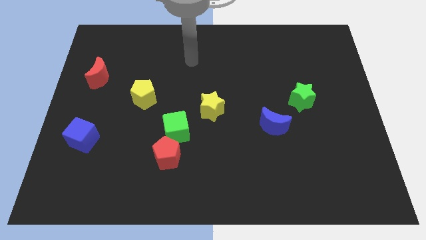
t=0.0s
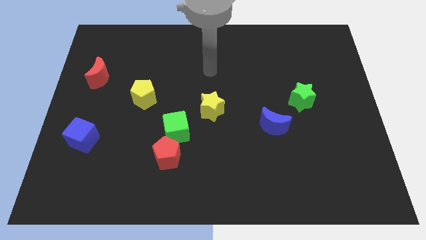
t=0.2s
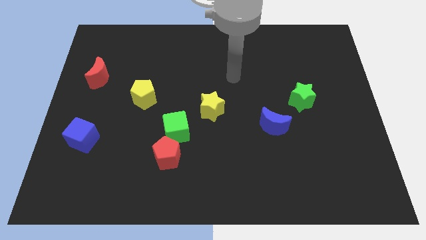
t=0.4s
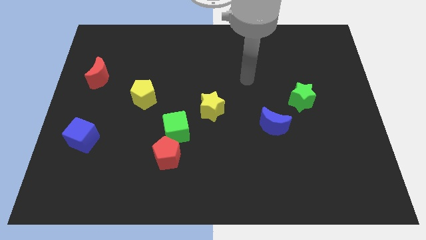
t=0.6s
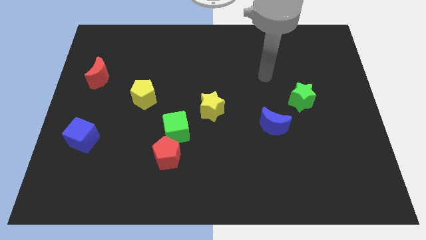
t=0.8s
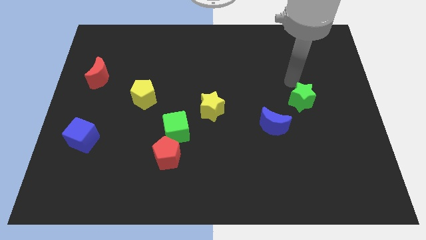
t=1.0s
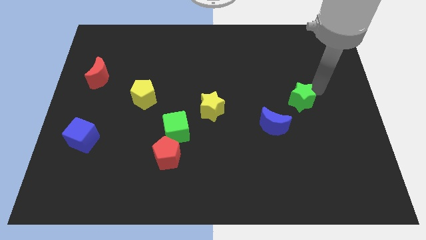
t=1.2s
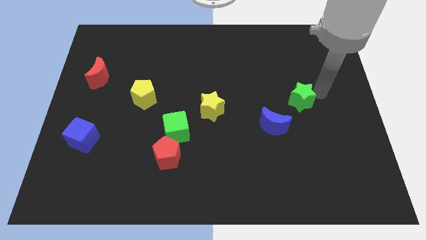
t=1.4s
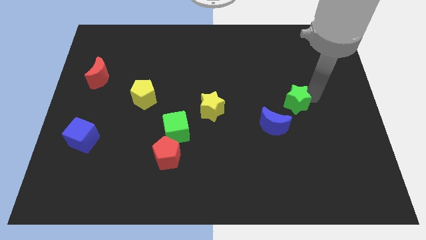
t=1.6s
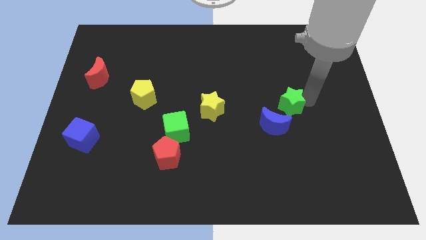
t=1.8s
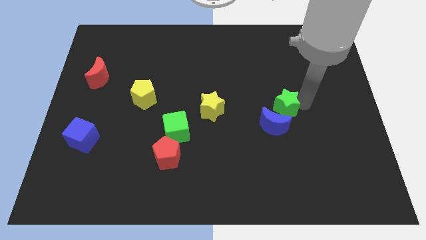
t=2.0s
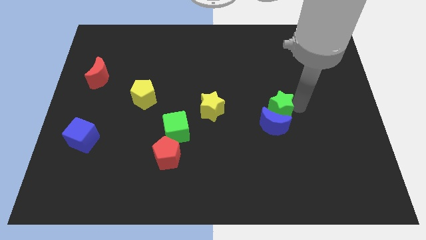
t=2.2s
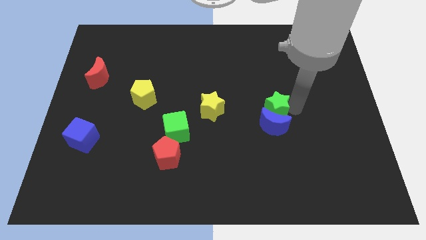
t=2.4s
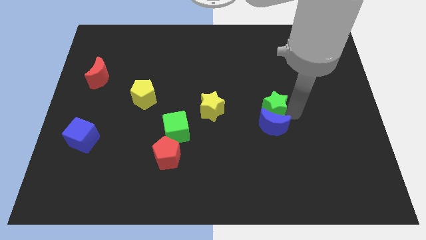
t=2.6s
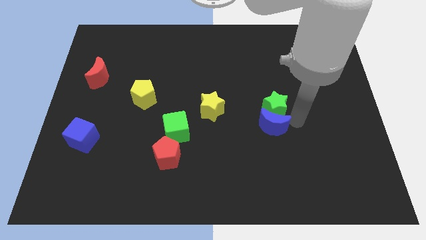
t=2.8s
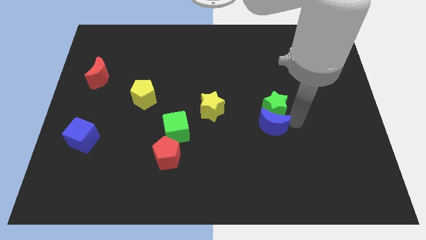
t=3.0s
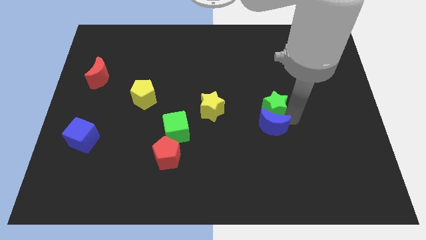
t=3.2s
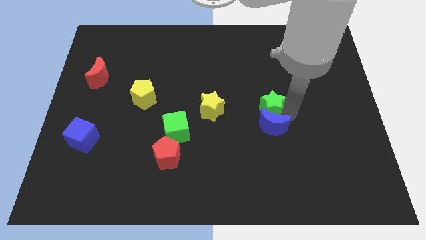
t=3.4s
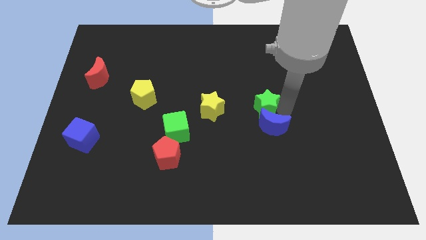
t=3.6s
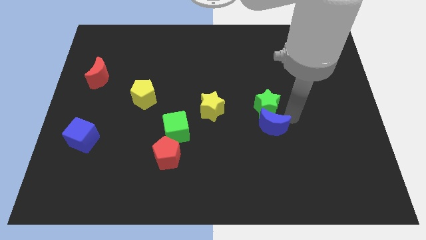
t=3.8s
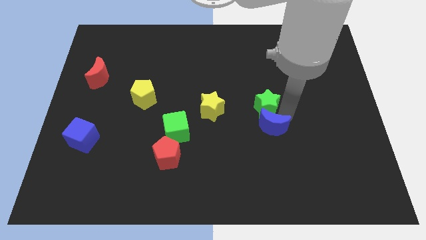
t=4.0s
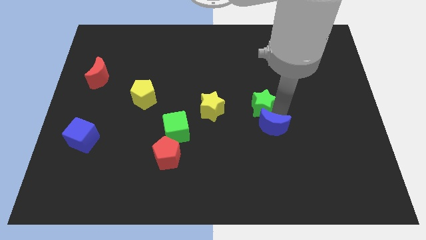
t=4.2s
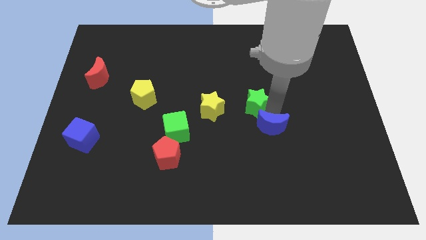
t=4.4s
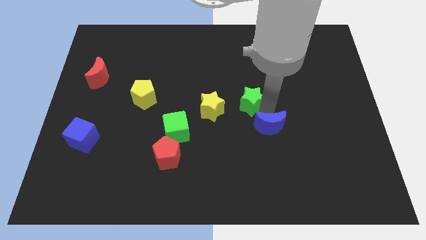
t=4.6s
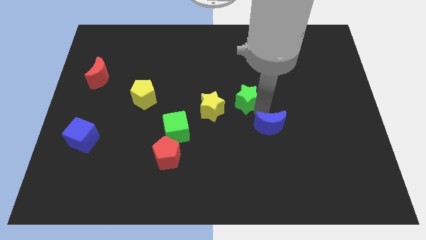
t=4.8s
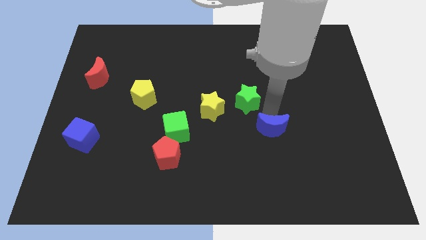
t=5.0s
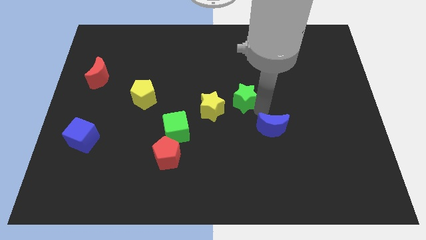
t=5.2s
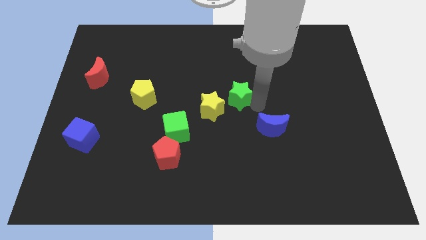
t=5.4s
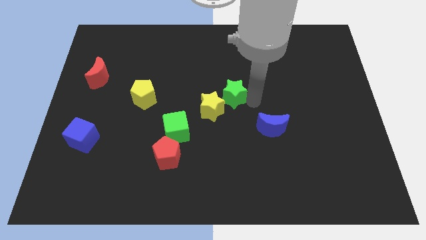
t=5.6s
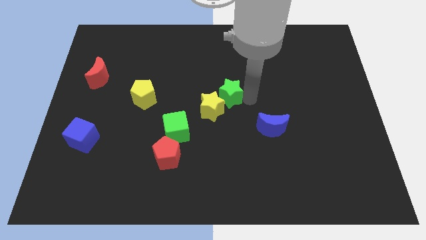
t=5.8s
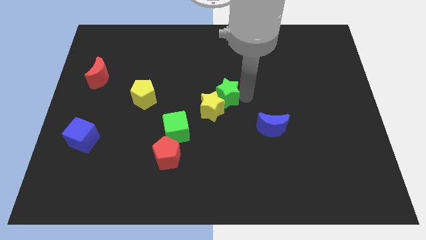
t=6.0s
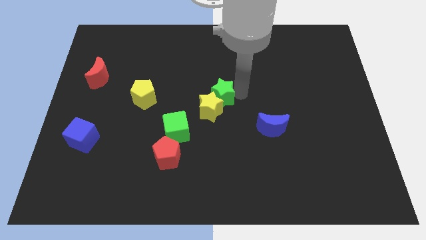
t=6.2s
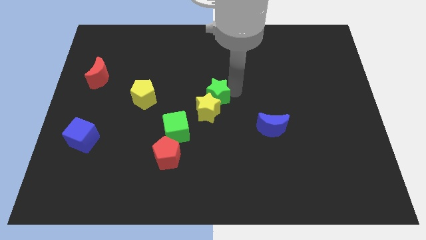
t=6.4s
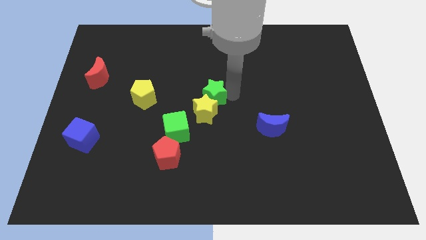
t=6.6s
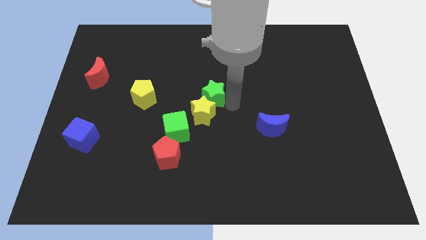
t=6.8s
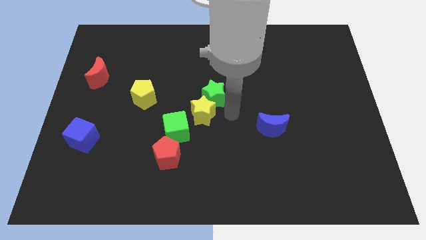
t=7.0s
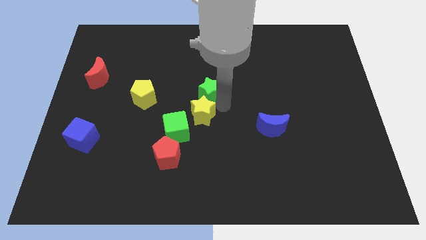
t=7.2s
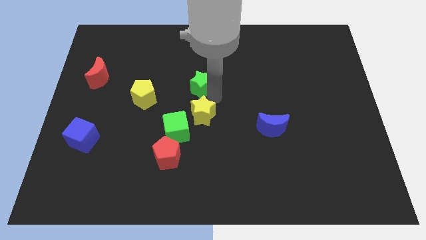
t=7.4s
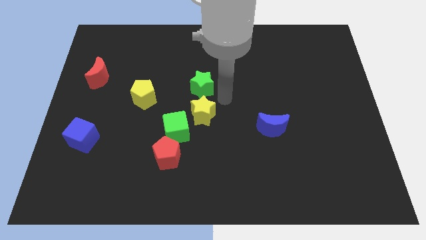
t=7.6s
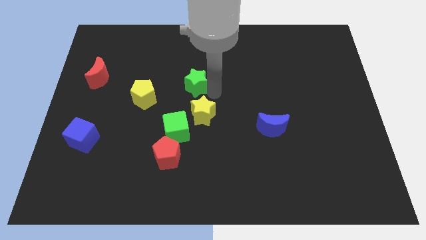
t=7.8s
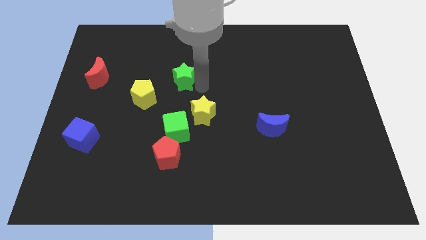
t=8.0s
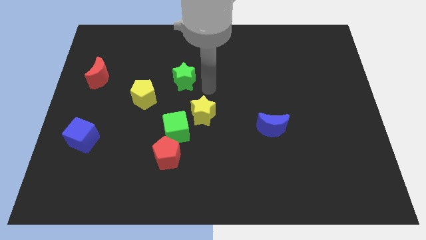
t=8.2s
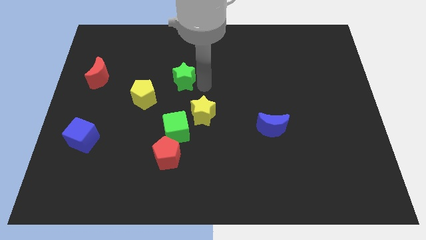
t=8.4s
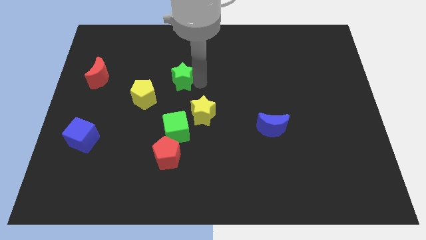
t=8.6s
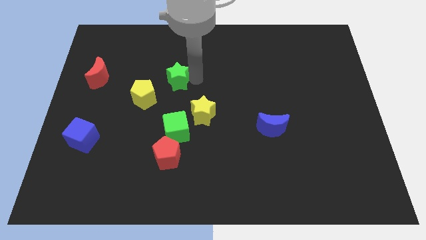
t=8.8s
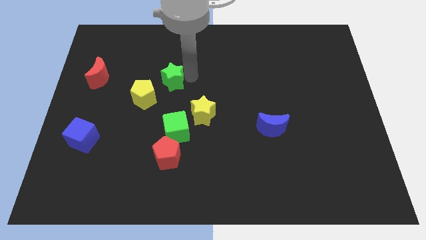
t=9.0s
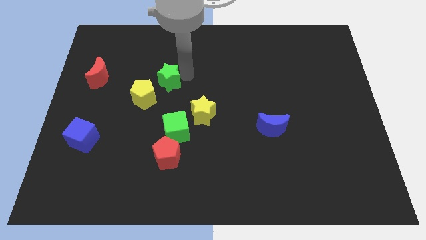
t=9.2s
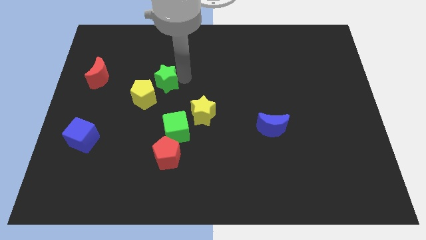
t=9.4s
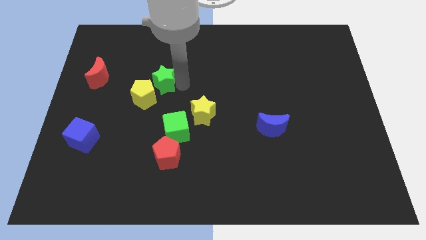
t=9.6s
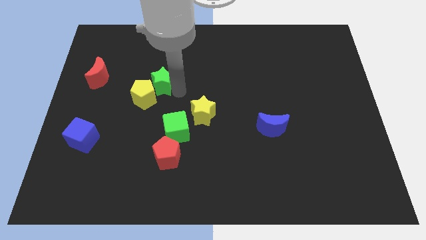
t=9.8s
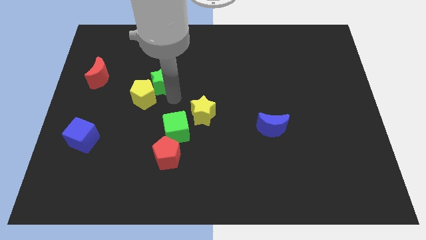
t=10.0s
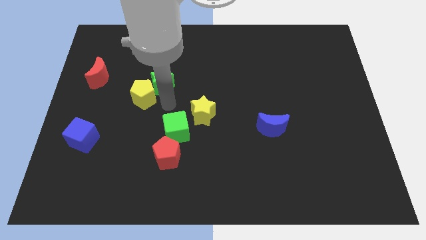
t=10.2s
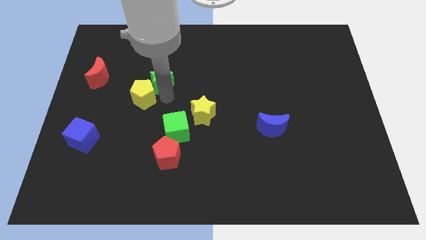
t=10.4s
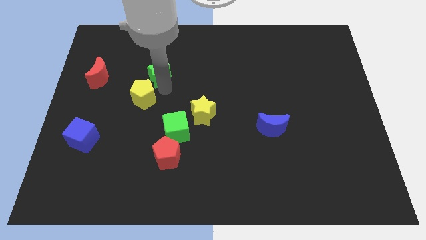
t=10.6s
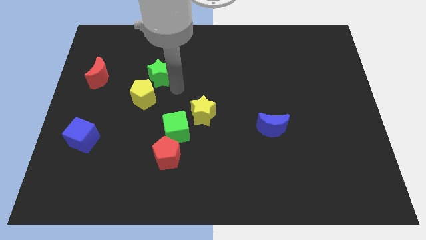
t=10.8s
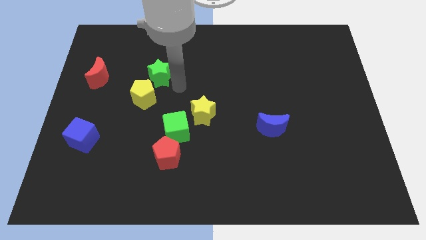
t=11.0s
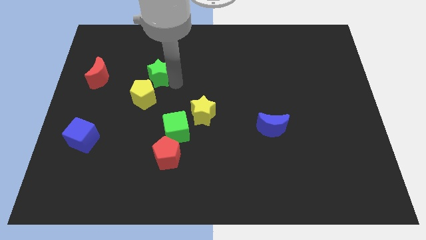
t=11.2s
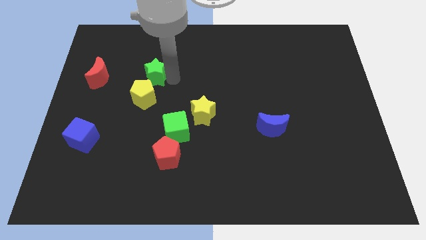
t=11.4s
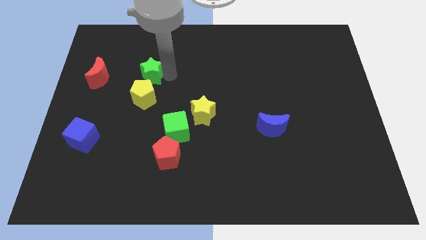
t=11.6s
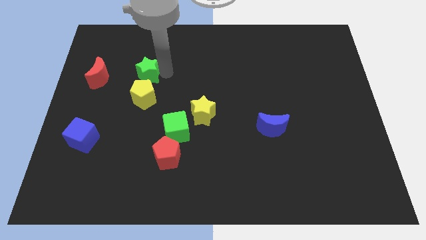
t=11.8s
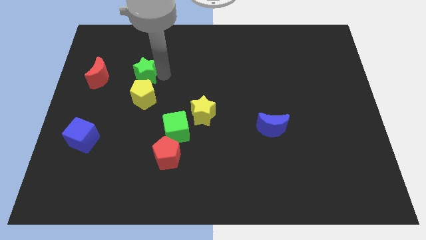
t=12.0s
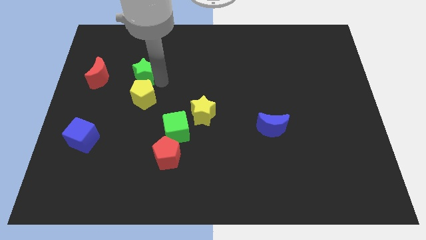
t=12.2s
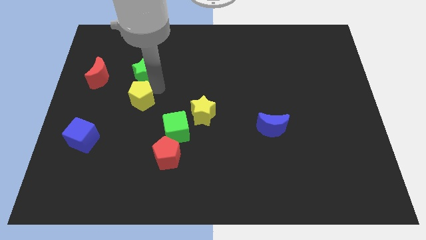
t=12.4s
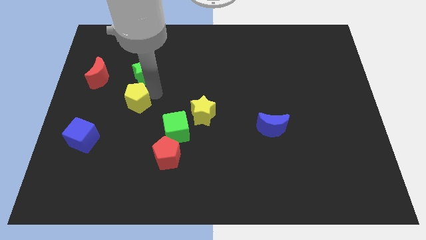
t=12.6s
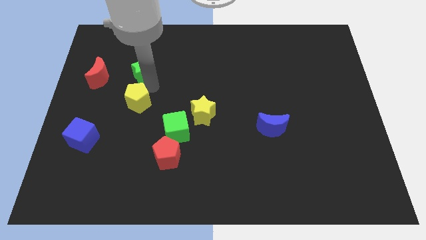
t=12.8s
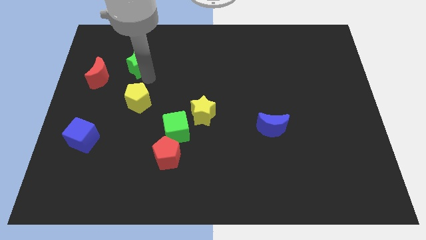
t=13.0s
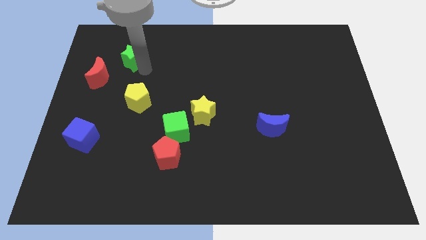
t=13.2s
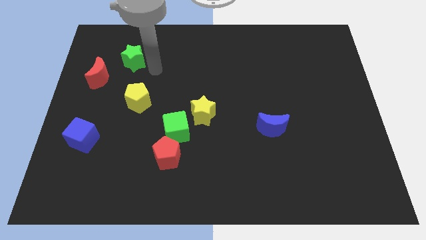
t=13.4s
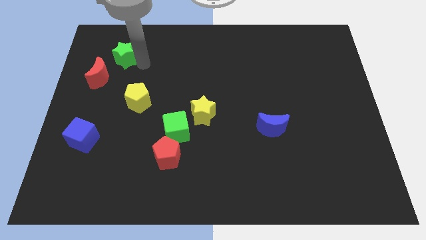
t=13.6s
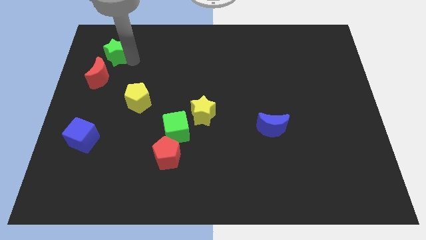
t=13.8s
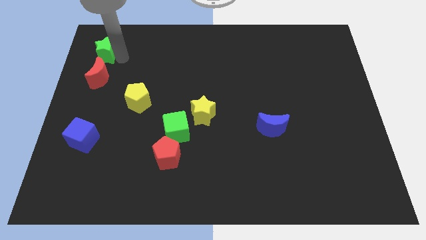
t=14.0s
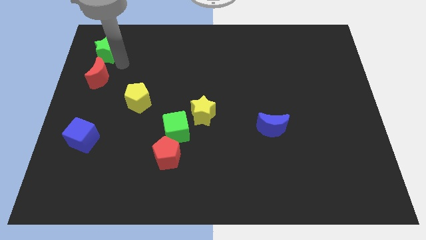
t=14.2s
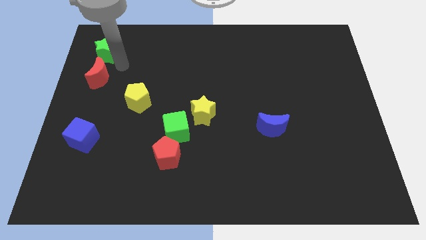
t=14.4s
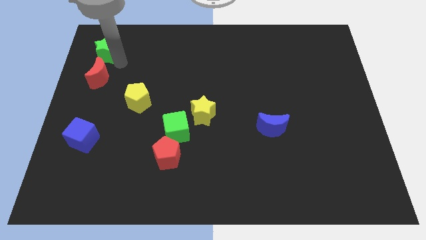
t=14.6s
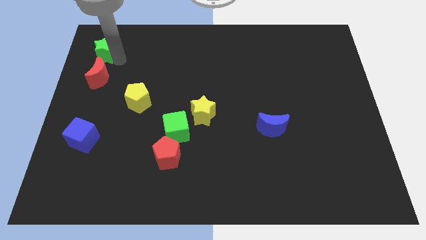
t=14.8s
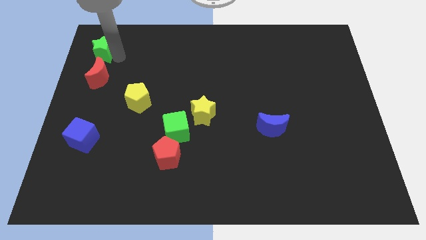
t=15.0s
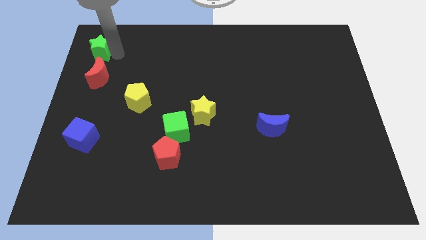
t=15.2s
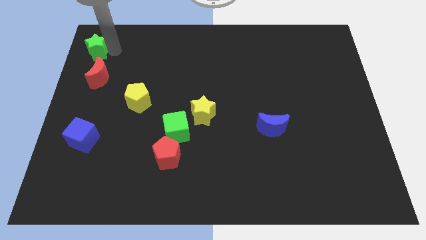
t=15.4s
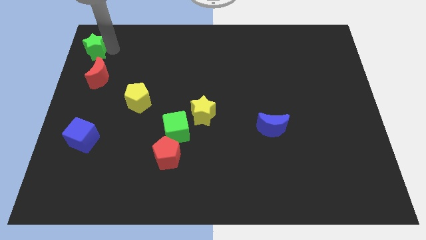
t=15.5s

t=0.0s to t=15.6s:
move the green star to the upper left corner
